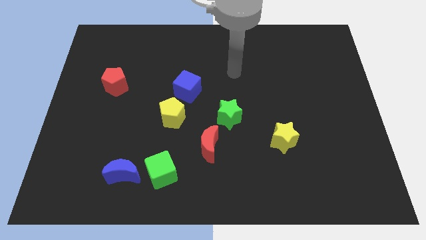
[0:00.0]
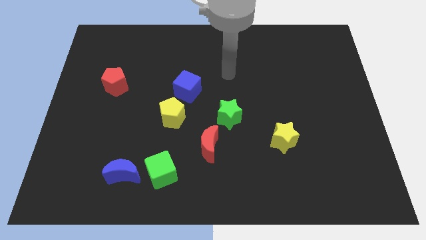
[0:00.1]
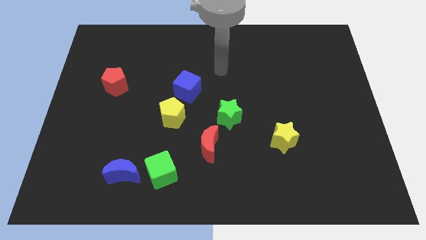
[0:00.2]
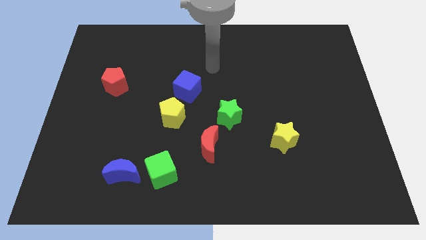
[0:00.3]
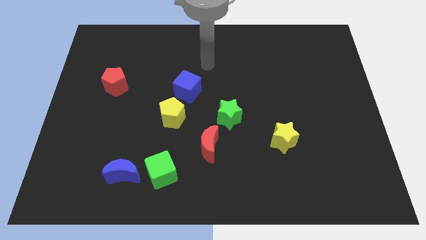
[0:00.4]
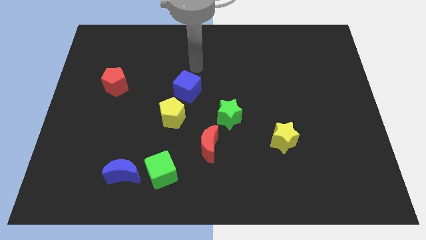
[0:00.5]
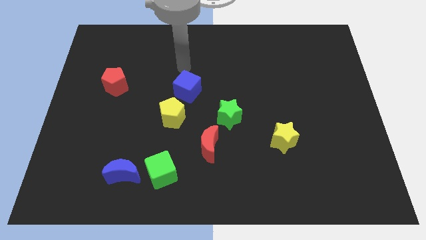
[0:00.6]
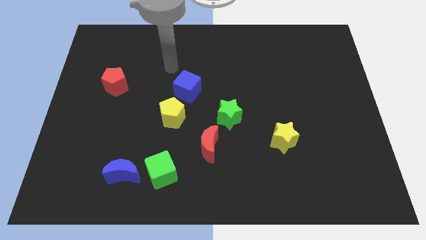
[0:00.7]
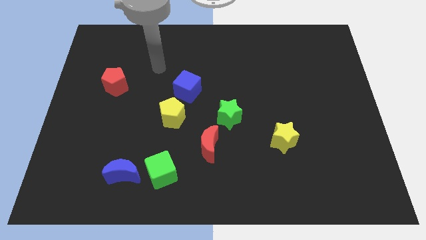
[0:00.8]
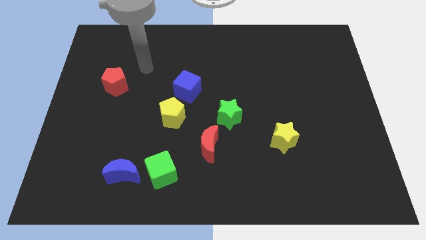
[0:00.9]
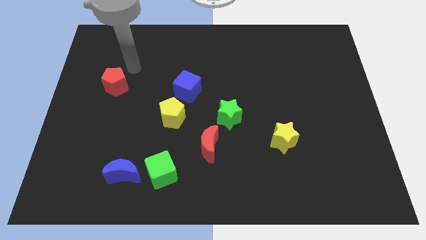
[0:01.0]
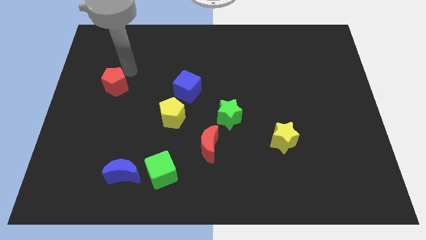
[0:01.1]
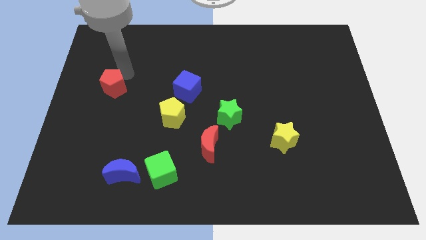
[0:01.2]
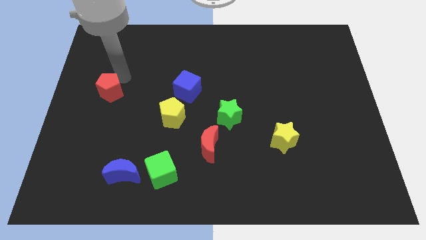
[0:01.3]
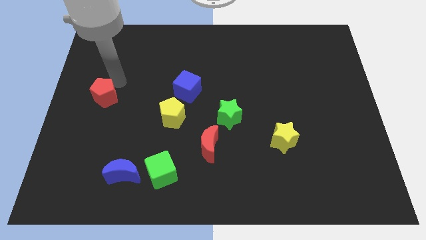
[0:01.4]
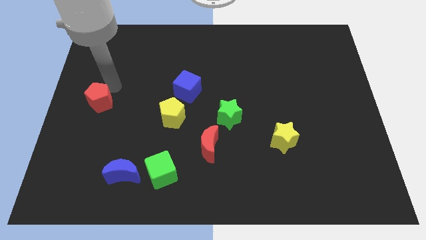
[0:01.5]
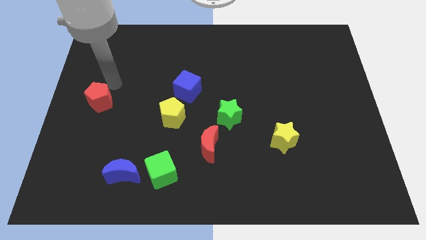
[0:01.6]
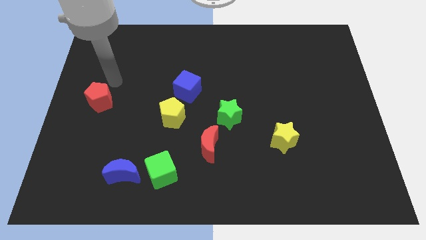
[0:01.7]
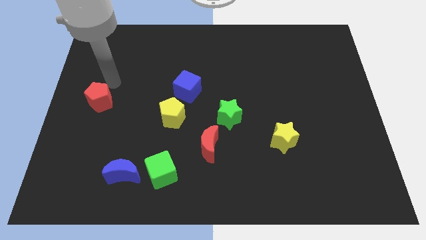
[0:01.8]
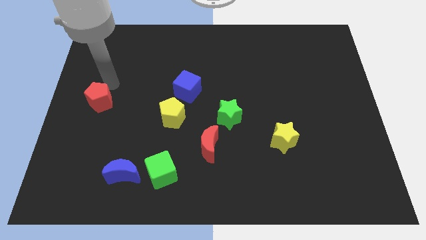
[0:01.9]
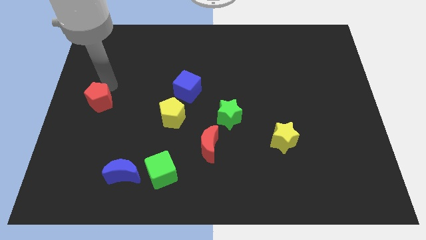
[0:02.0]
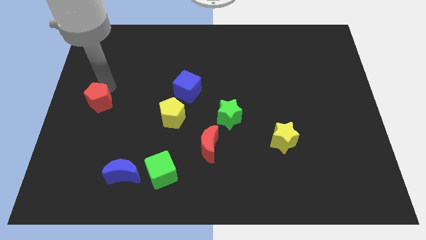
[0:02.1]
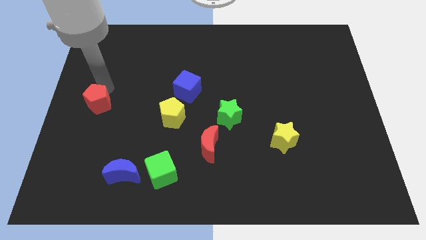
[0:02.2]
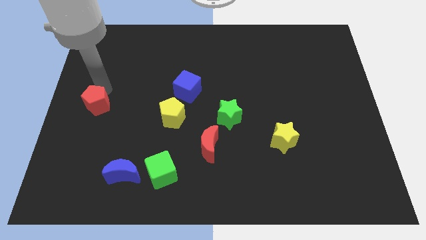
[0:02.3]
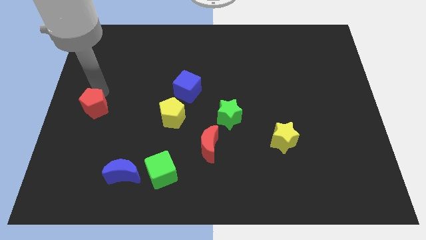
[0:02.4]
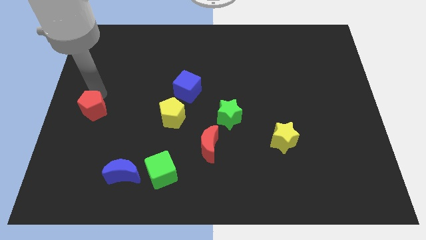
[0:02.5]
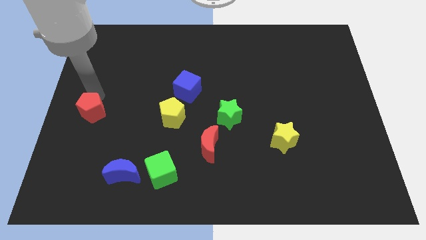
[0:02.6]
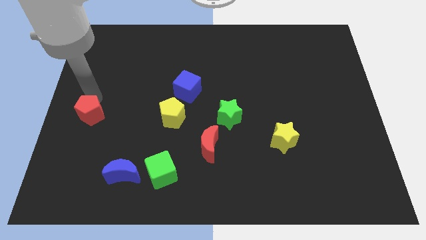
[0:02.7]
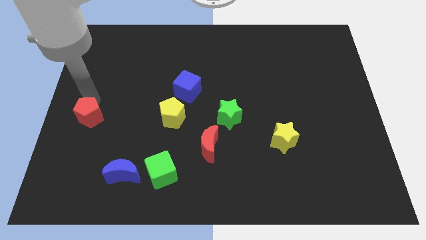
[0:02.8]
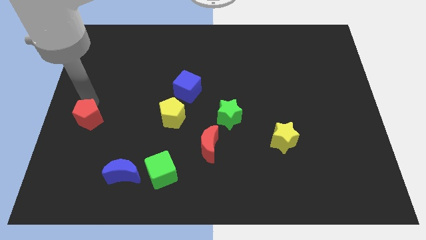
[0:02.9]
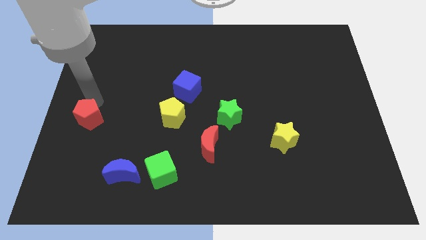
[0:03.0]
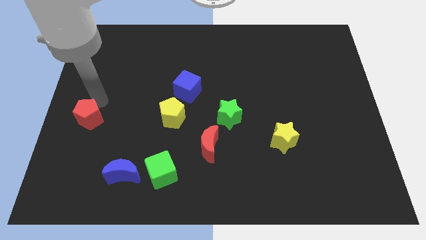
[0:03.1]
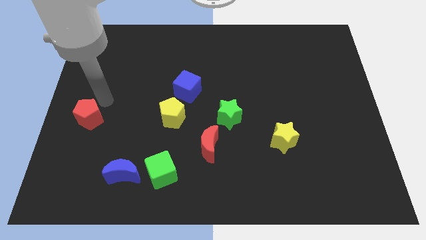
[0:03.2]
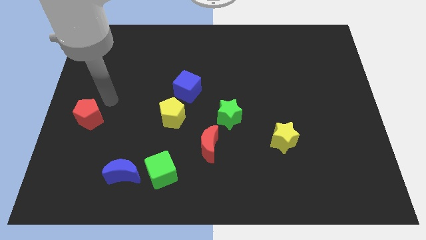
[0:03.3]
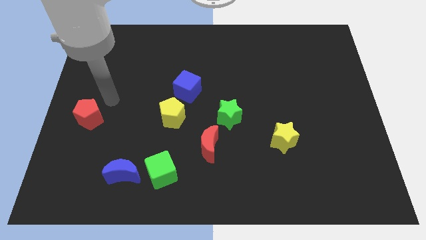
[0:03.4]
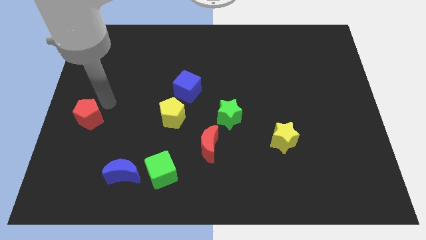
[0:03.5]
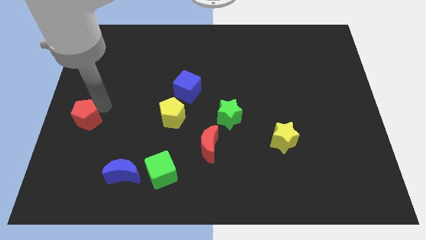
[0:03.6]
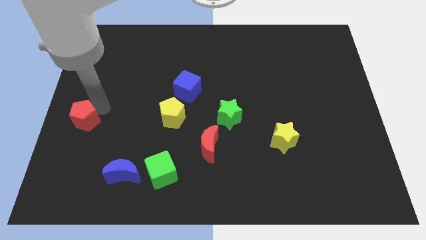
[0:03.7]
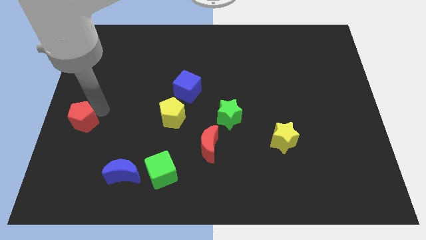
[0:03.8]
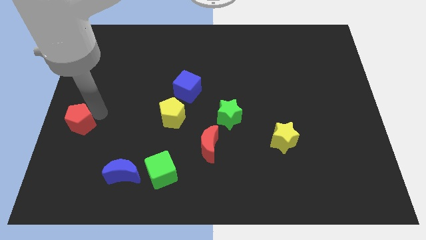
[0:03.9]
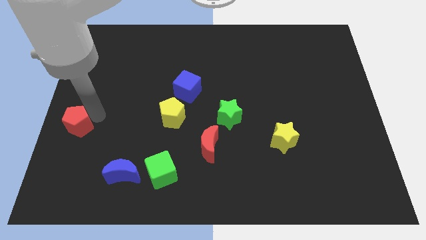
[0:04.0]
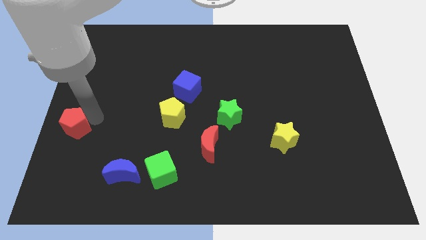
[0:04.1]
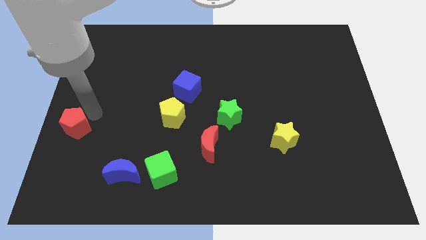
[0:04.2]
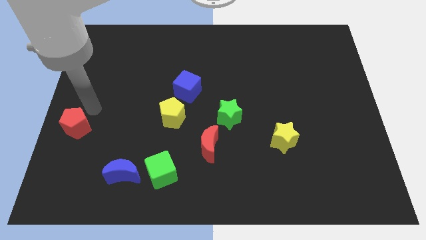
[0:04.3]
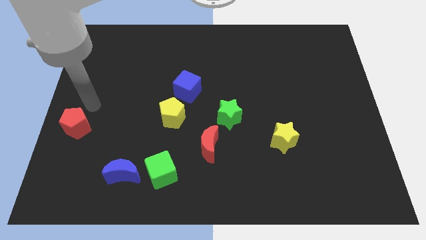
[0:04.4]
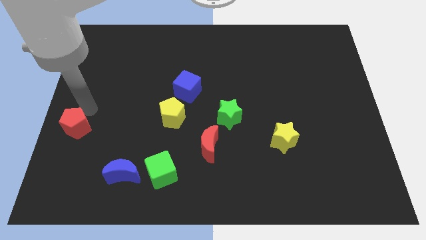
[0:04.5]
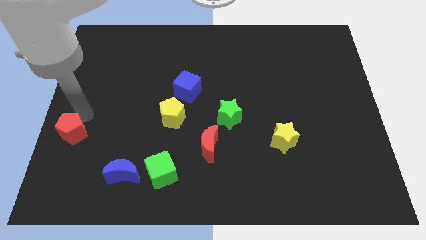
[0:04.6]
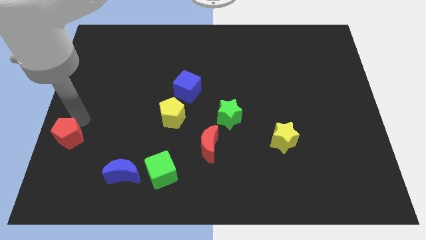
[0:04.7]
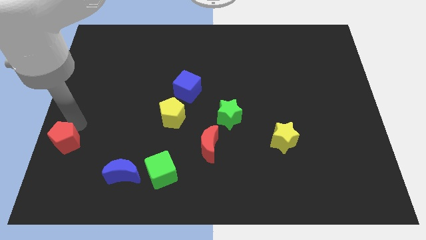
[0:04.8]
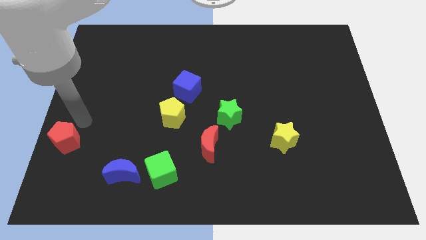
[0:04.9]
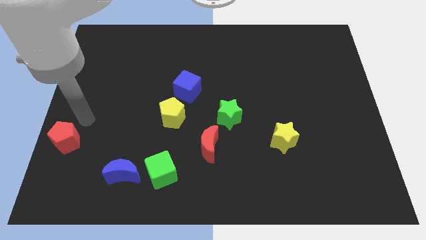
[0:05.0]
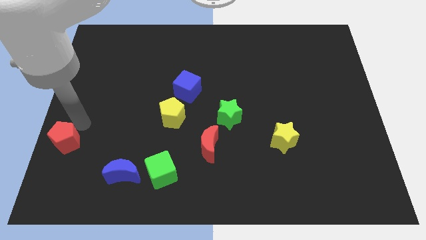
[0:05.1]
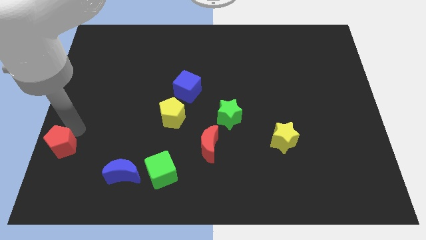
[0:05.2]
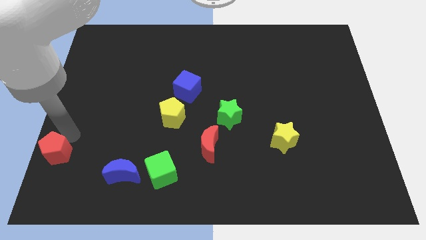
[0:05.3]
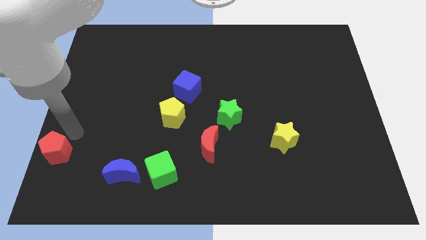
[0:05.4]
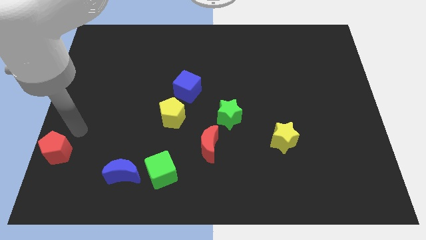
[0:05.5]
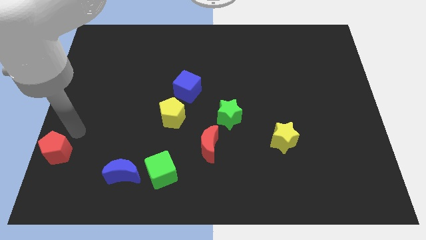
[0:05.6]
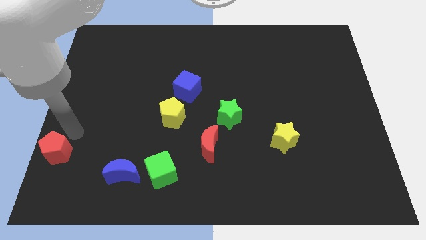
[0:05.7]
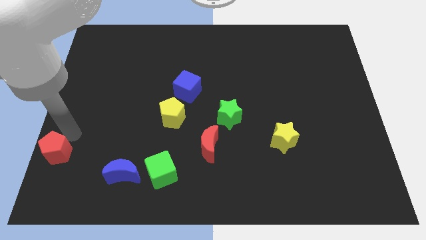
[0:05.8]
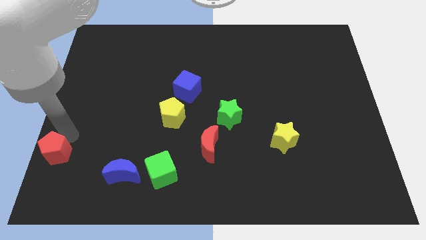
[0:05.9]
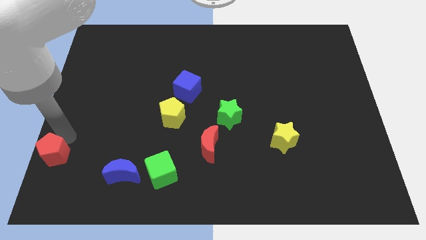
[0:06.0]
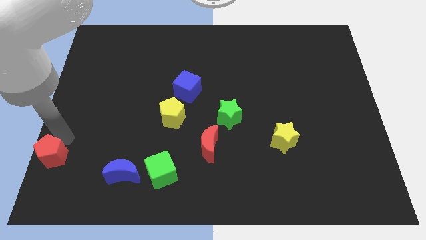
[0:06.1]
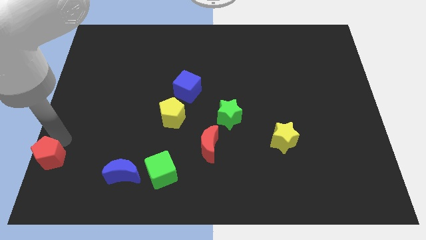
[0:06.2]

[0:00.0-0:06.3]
slide the red pentagon to the bottom left

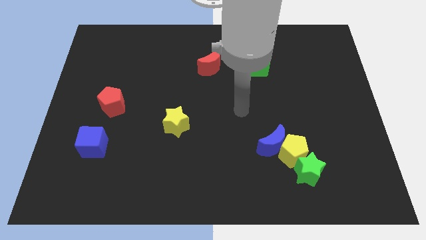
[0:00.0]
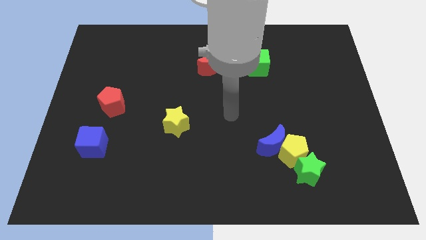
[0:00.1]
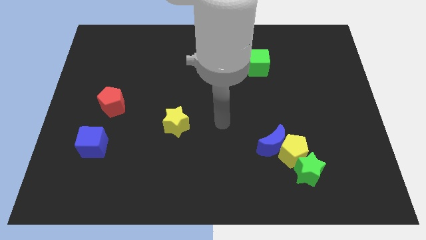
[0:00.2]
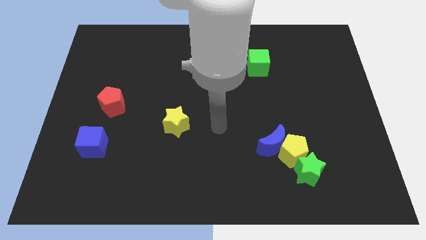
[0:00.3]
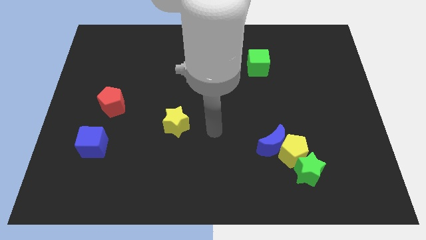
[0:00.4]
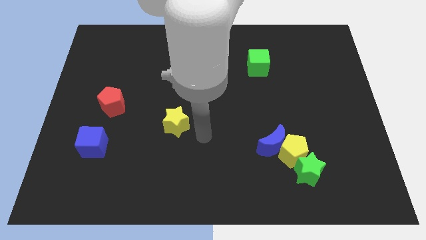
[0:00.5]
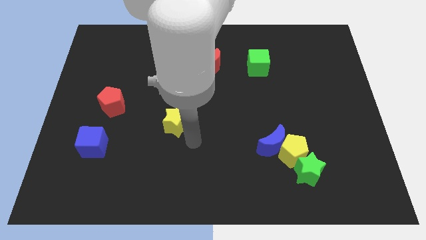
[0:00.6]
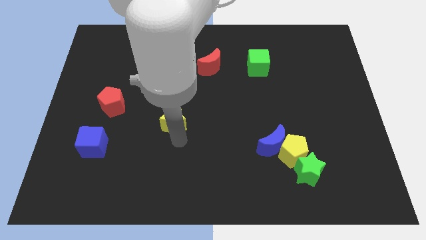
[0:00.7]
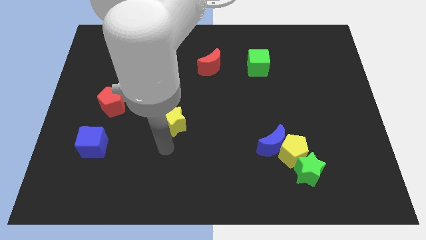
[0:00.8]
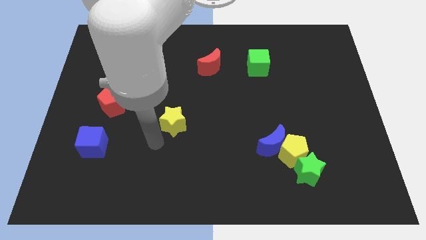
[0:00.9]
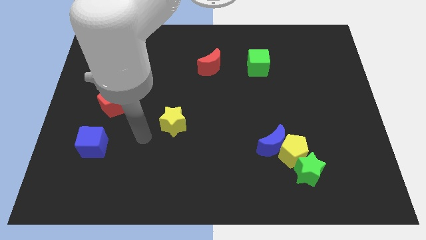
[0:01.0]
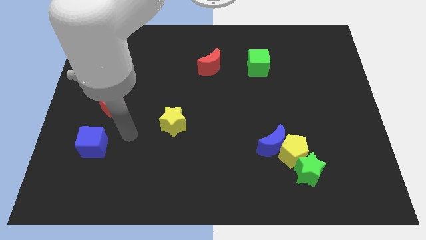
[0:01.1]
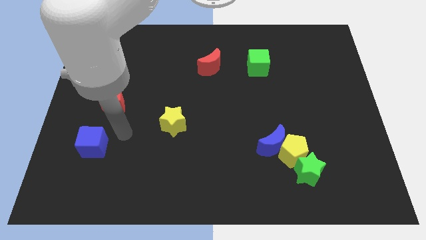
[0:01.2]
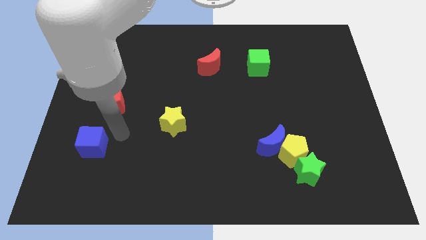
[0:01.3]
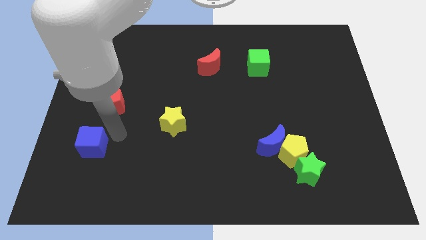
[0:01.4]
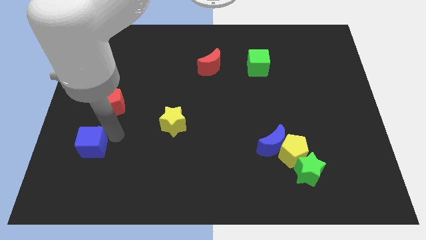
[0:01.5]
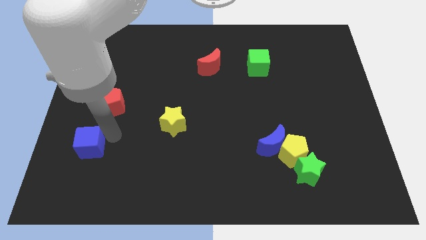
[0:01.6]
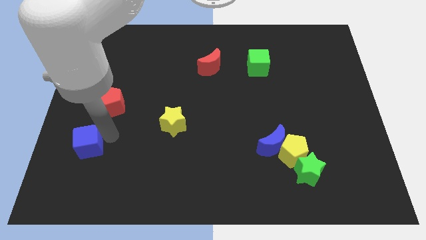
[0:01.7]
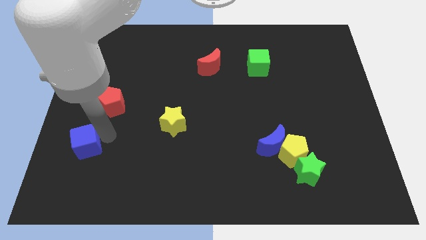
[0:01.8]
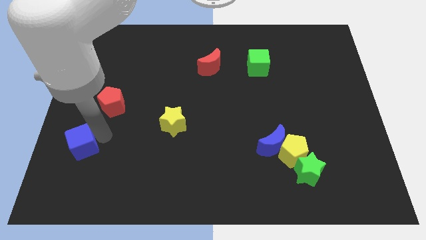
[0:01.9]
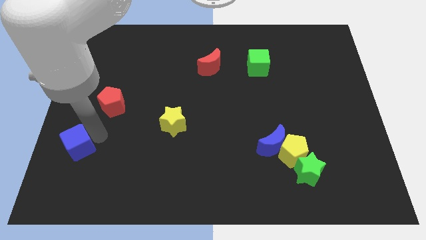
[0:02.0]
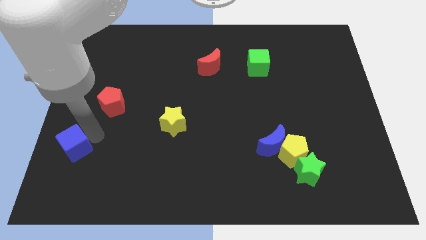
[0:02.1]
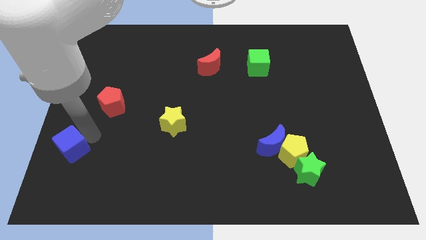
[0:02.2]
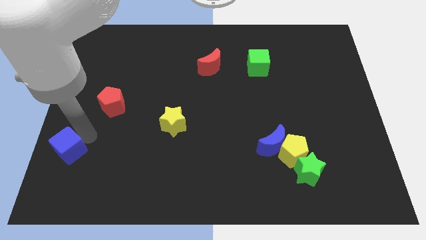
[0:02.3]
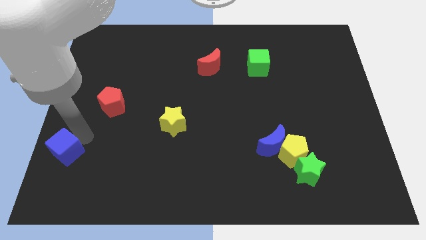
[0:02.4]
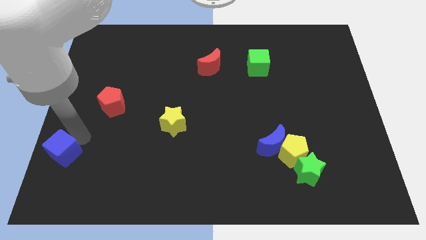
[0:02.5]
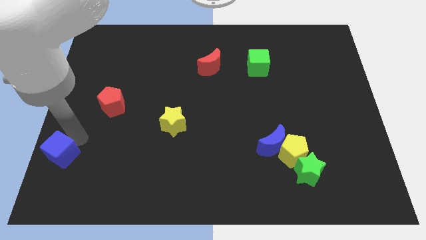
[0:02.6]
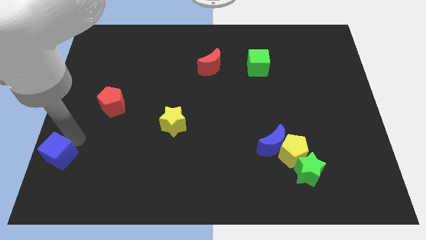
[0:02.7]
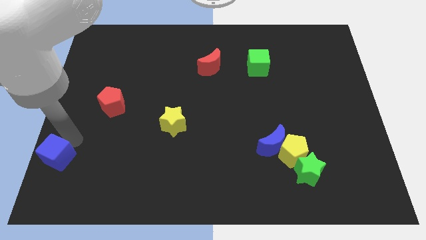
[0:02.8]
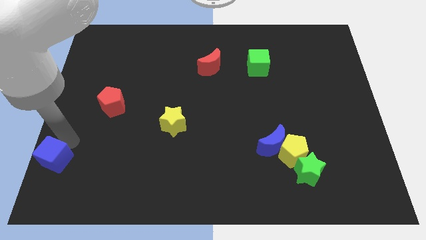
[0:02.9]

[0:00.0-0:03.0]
move the blue cube to the bottom left of the board
